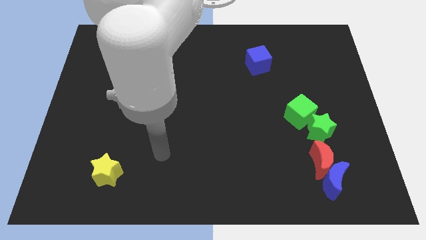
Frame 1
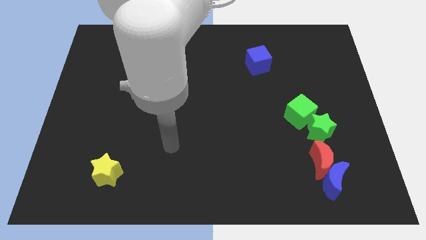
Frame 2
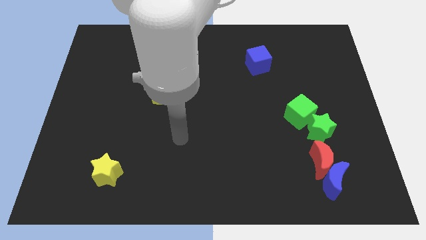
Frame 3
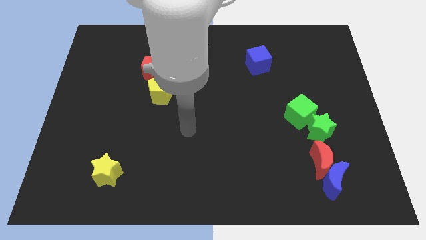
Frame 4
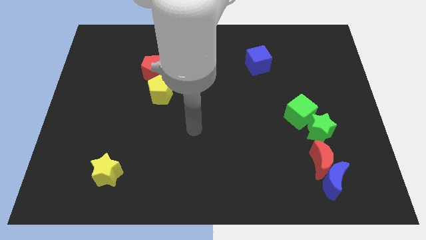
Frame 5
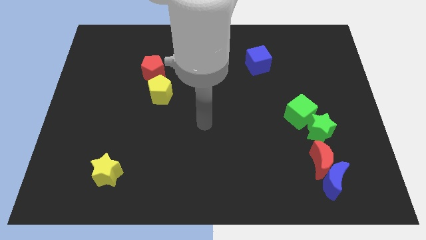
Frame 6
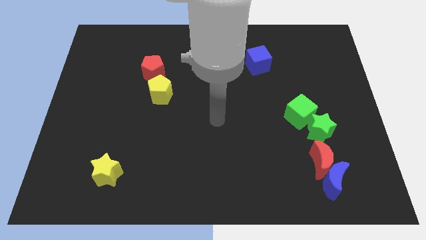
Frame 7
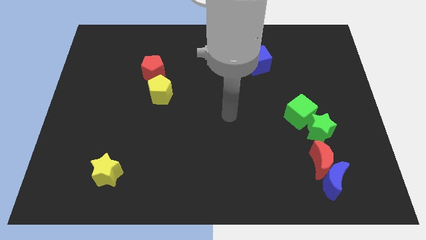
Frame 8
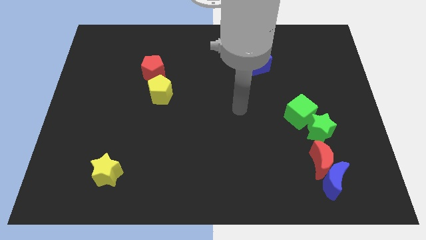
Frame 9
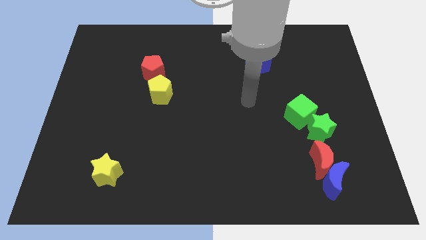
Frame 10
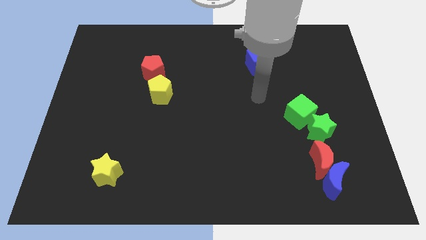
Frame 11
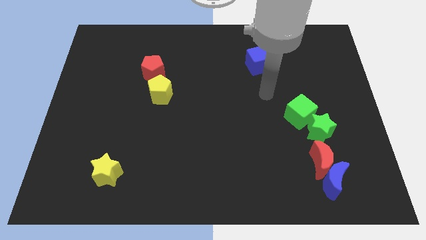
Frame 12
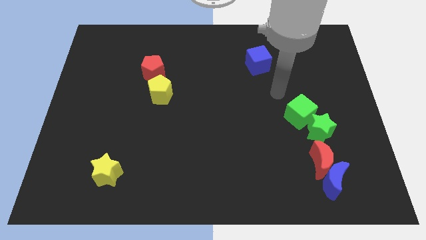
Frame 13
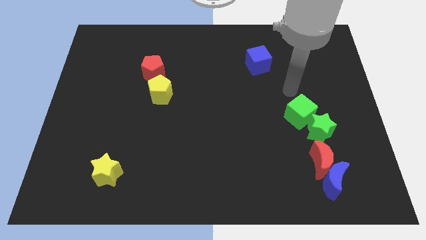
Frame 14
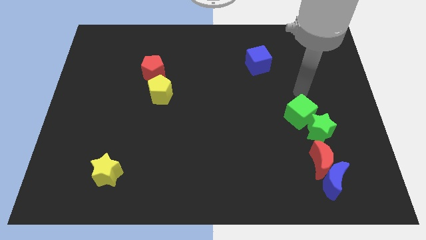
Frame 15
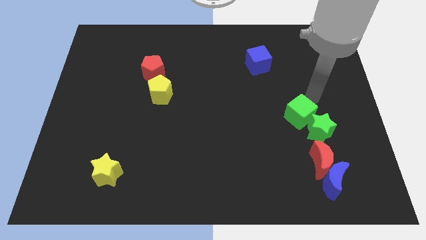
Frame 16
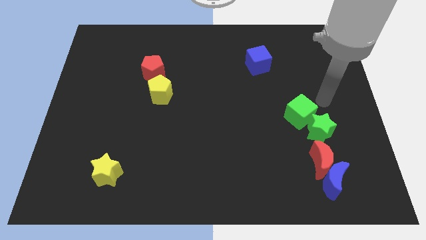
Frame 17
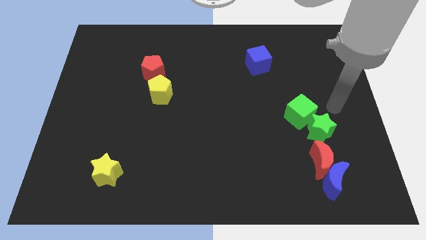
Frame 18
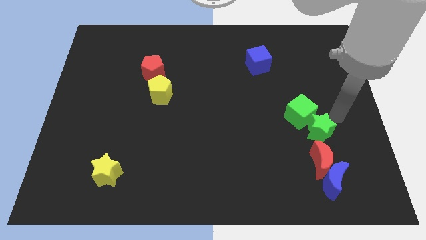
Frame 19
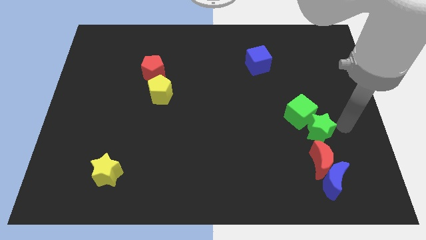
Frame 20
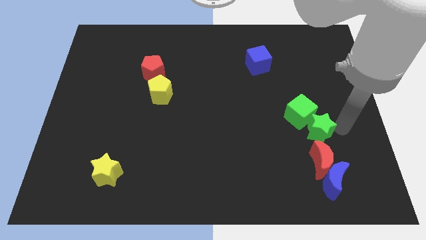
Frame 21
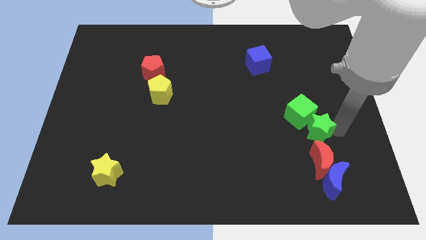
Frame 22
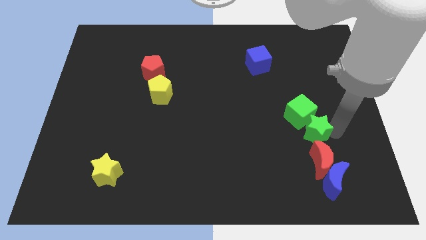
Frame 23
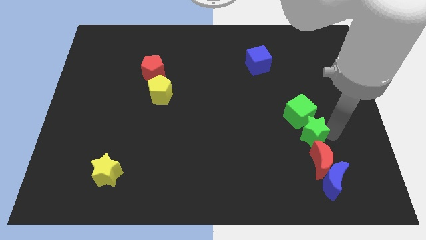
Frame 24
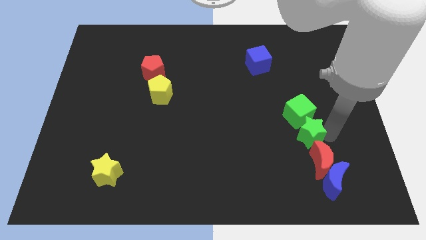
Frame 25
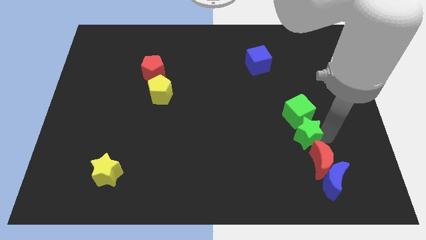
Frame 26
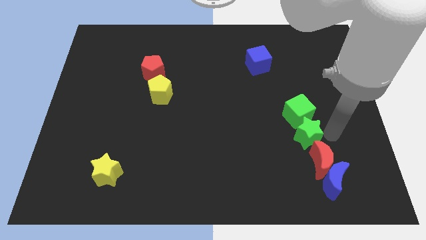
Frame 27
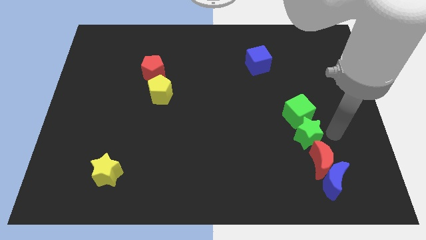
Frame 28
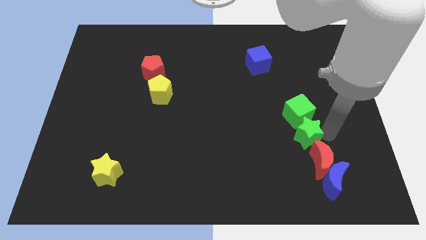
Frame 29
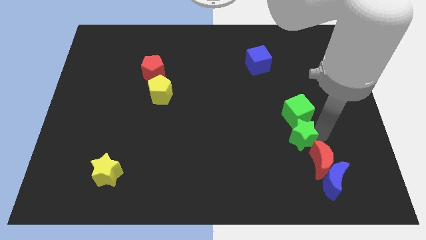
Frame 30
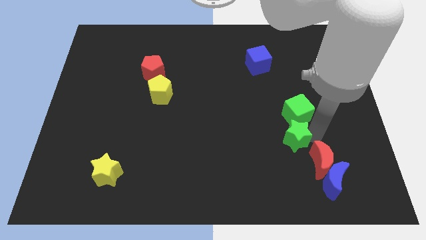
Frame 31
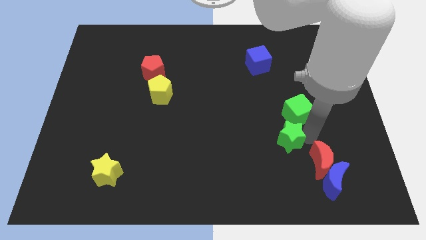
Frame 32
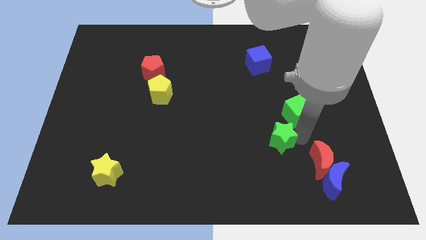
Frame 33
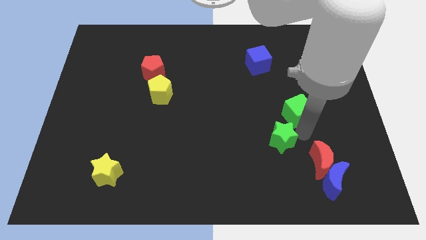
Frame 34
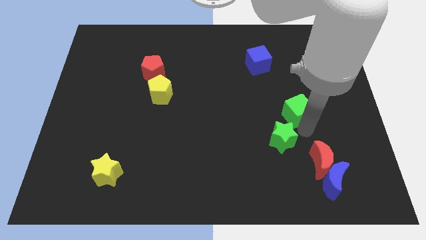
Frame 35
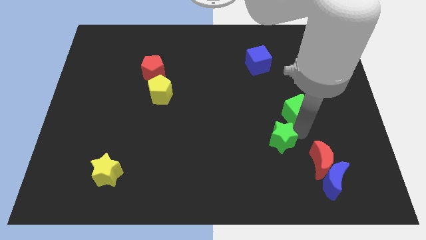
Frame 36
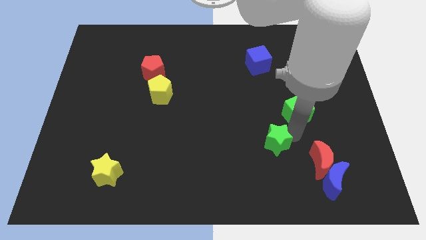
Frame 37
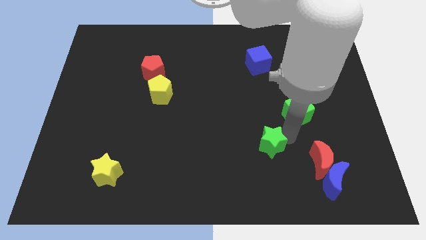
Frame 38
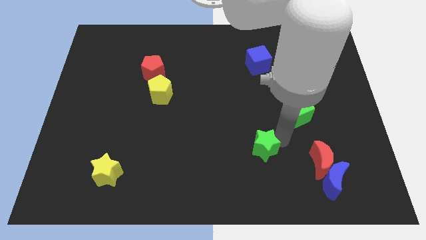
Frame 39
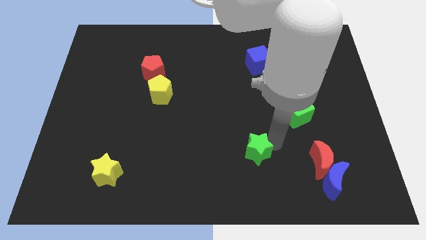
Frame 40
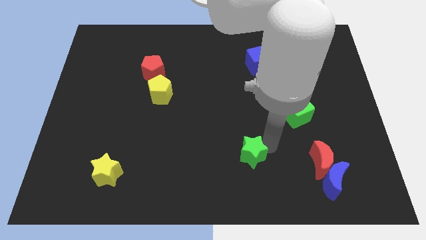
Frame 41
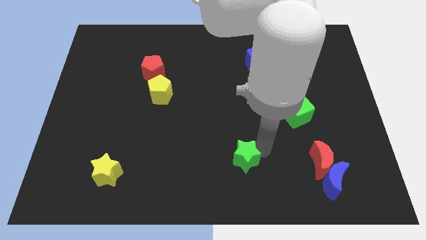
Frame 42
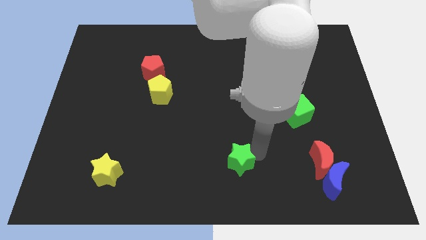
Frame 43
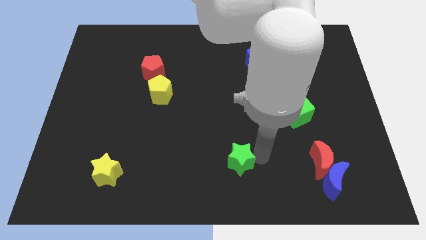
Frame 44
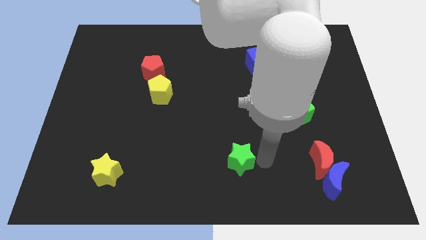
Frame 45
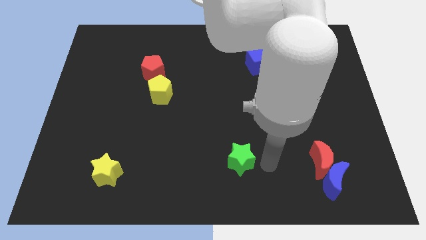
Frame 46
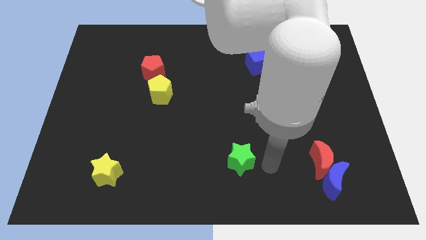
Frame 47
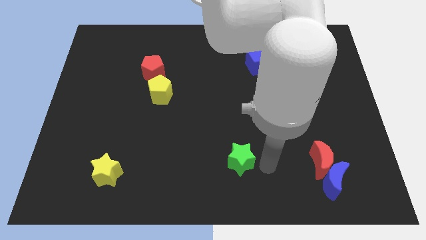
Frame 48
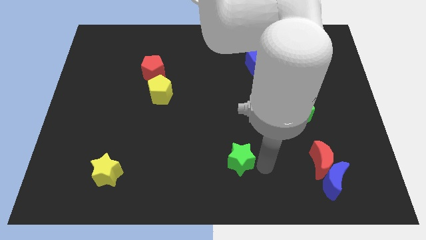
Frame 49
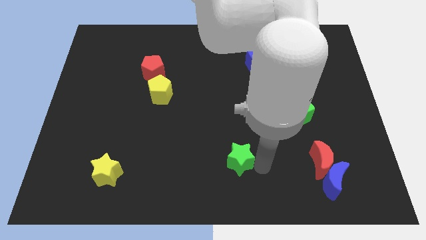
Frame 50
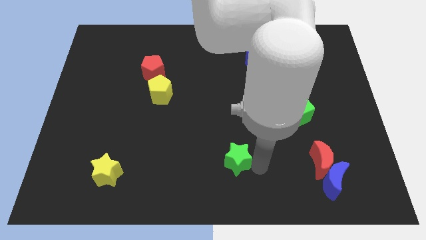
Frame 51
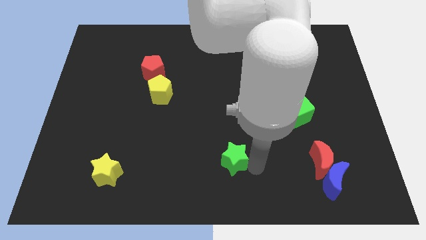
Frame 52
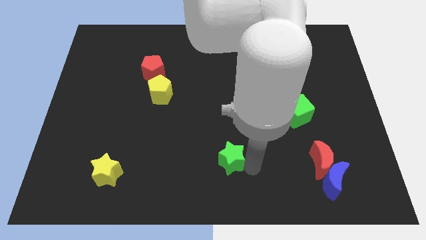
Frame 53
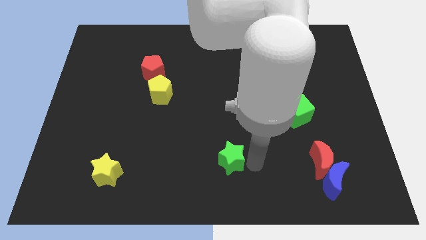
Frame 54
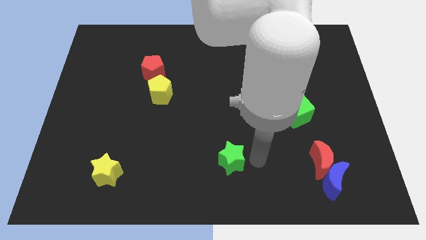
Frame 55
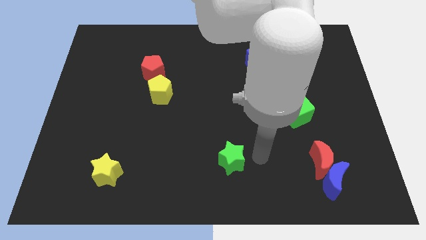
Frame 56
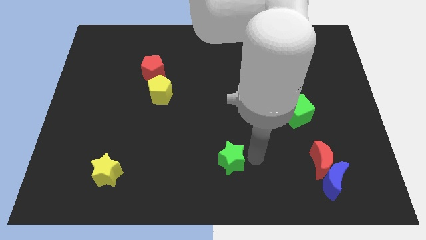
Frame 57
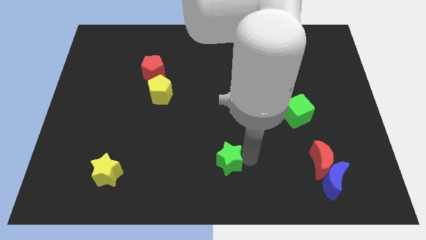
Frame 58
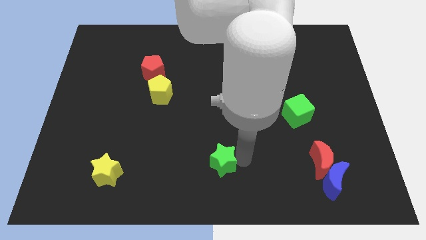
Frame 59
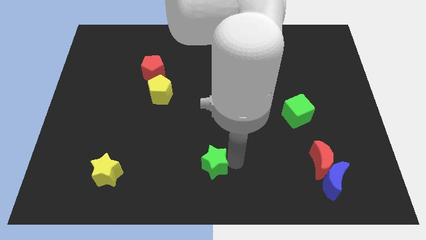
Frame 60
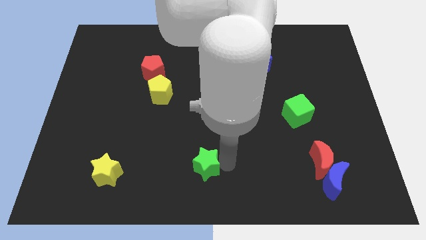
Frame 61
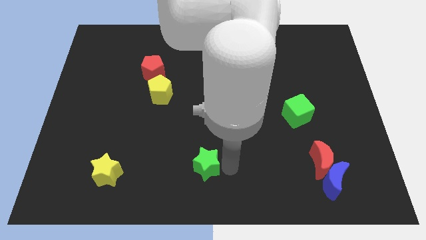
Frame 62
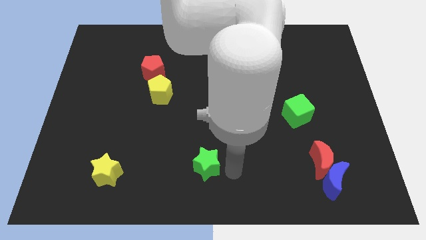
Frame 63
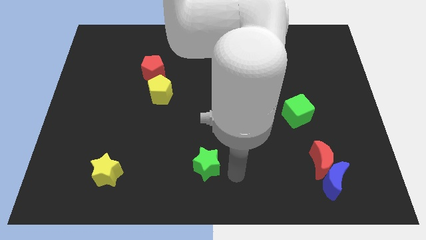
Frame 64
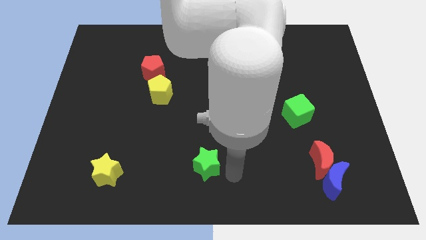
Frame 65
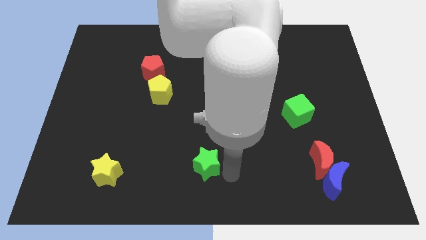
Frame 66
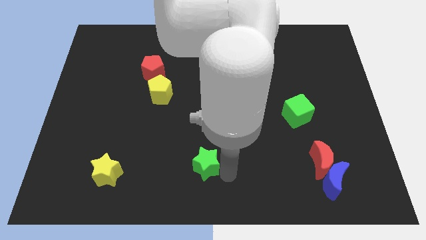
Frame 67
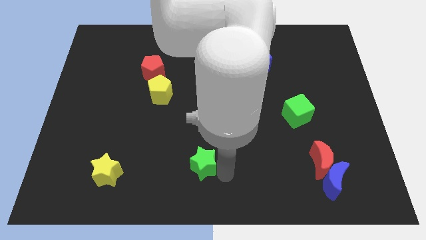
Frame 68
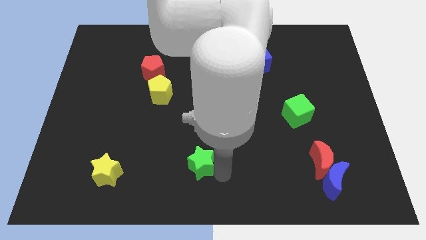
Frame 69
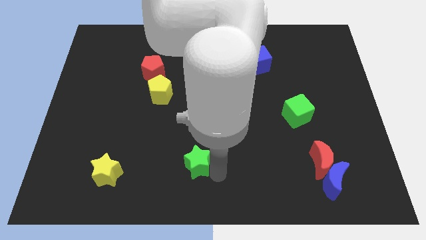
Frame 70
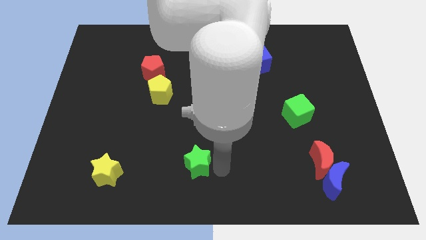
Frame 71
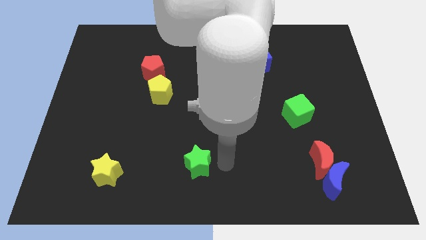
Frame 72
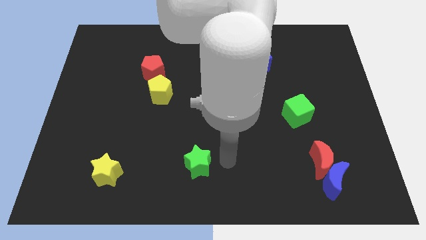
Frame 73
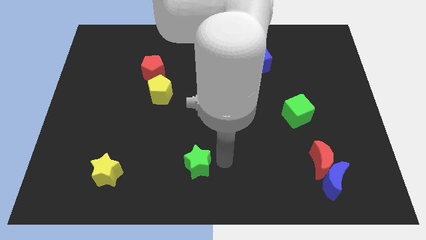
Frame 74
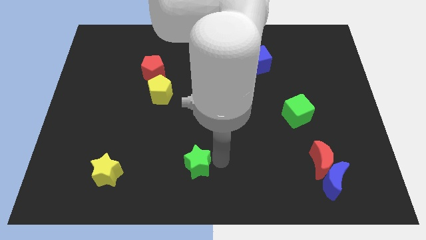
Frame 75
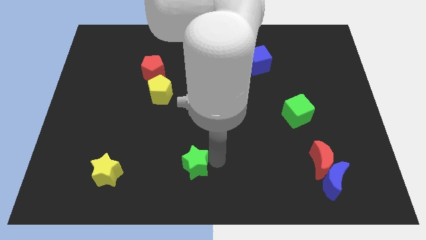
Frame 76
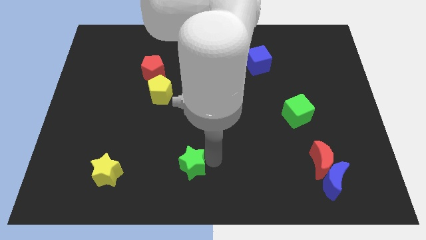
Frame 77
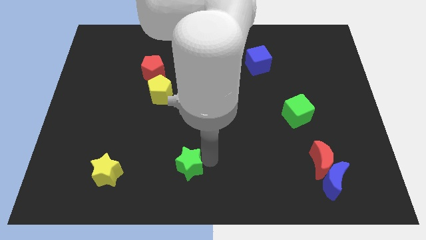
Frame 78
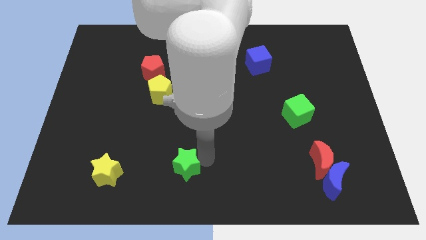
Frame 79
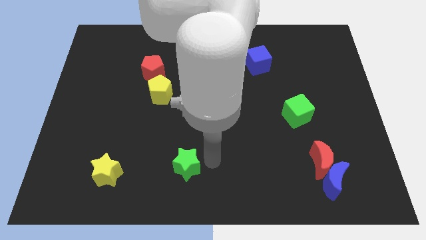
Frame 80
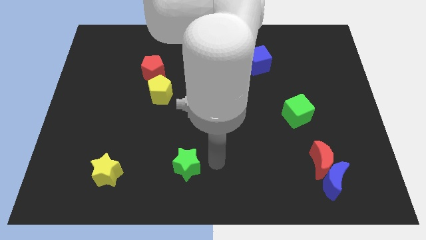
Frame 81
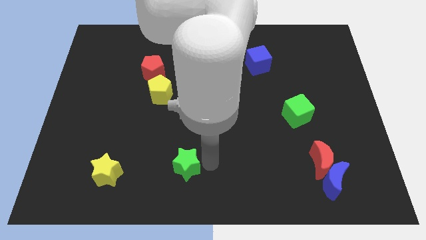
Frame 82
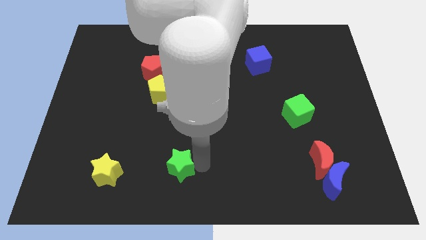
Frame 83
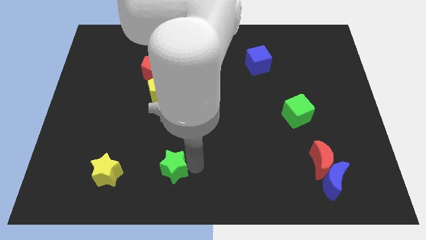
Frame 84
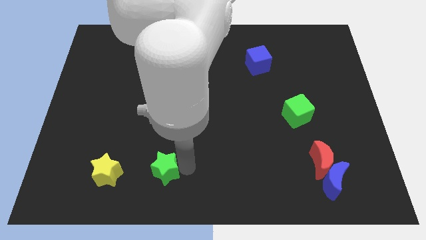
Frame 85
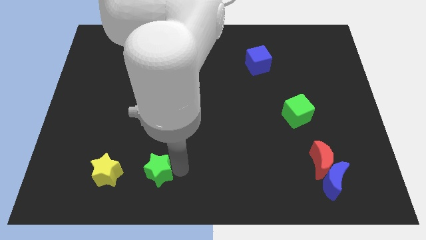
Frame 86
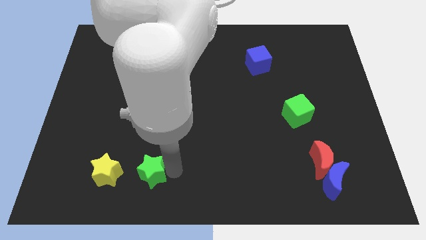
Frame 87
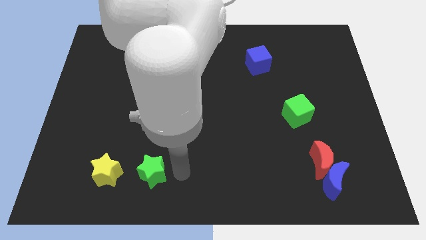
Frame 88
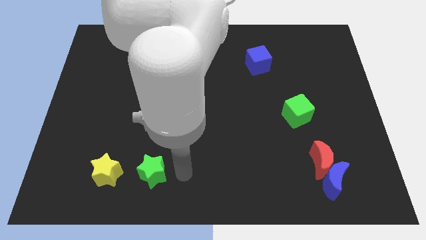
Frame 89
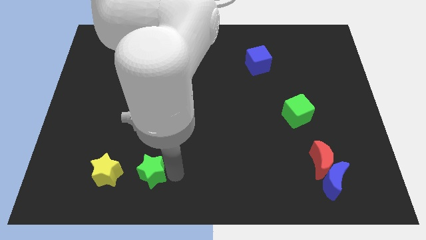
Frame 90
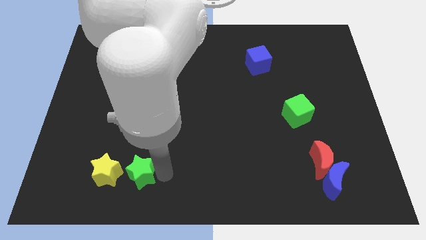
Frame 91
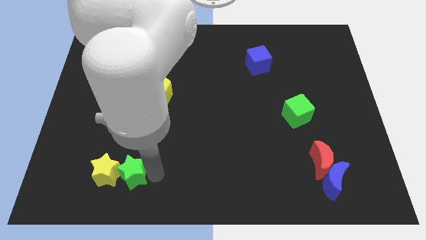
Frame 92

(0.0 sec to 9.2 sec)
put the green star towards the yellow star
